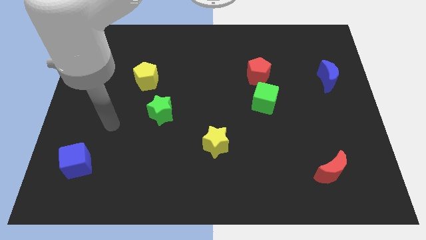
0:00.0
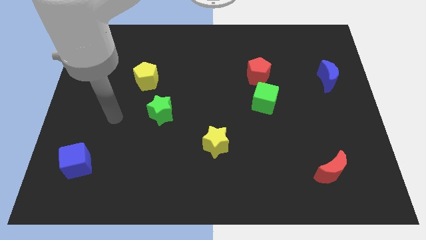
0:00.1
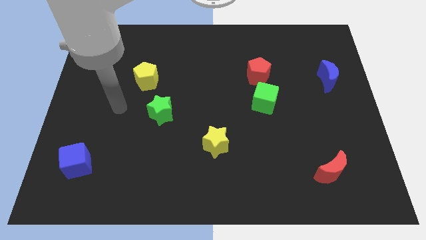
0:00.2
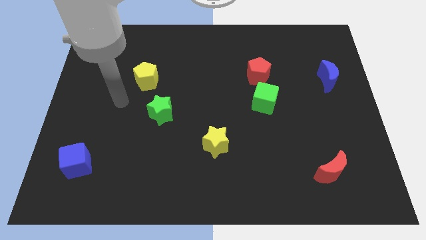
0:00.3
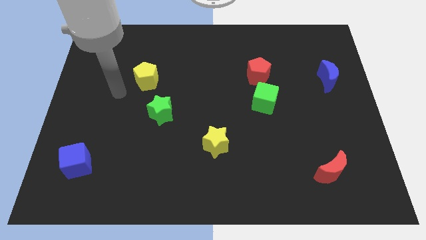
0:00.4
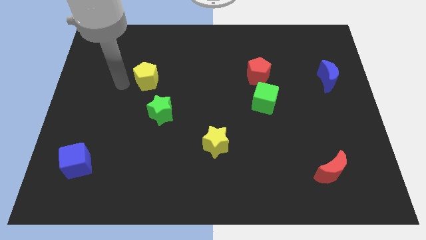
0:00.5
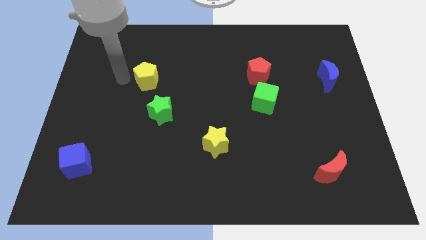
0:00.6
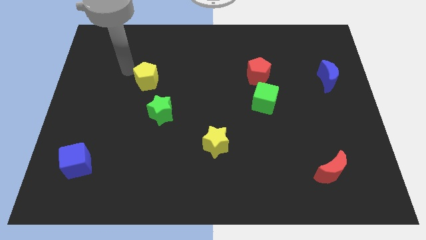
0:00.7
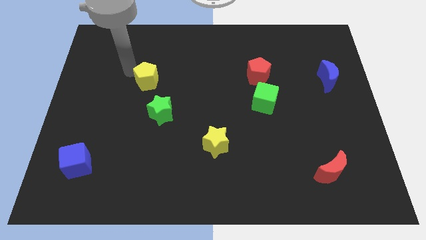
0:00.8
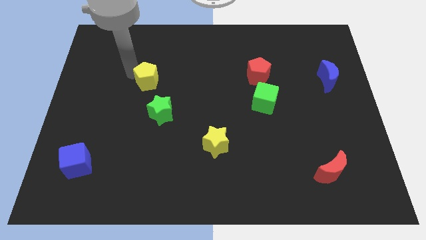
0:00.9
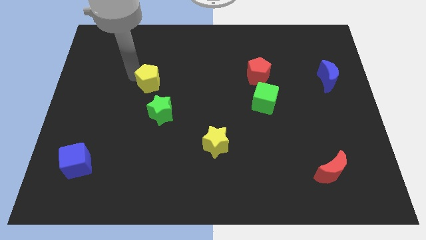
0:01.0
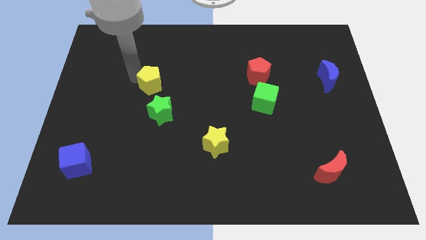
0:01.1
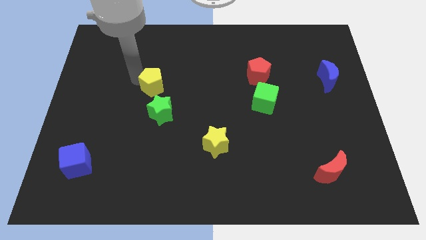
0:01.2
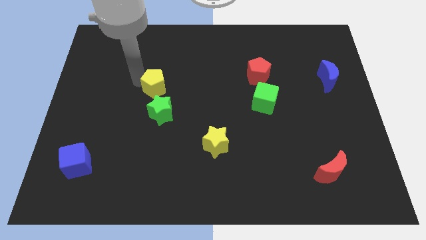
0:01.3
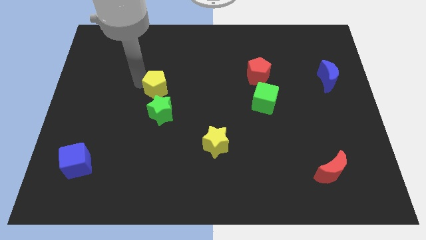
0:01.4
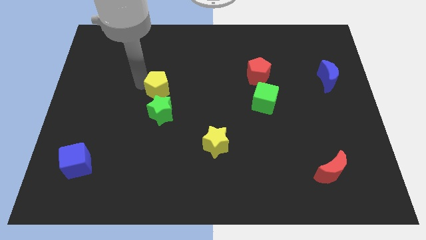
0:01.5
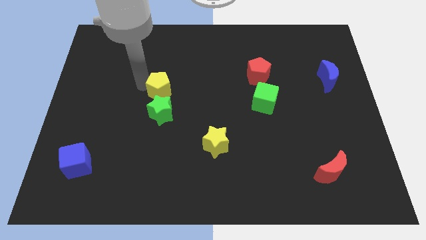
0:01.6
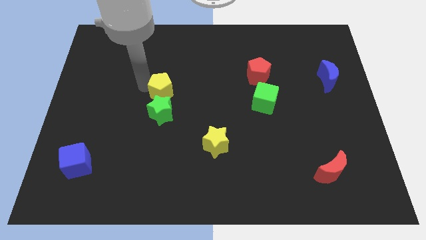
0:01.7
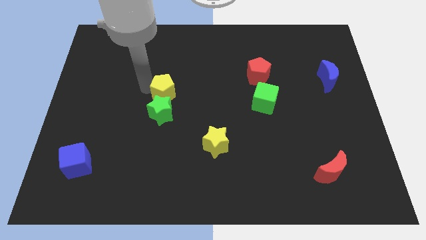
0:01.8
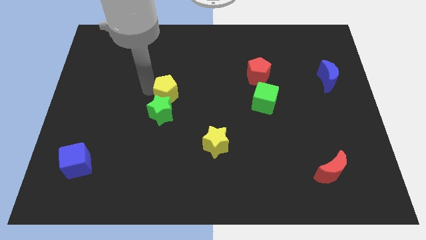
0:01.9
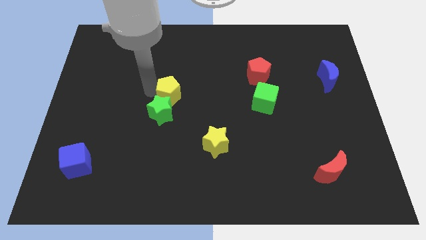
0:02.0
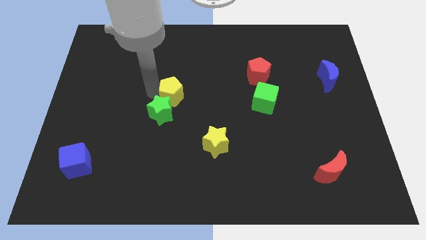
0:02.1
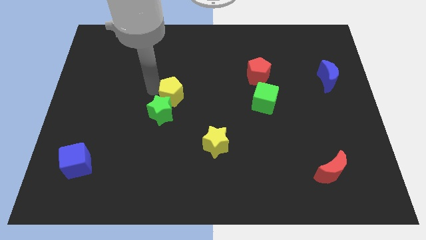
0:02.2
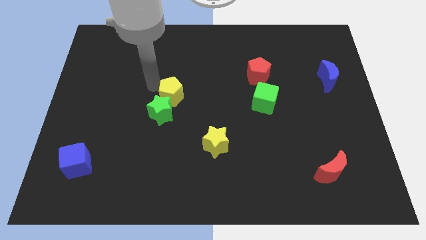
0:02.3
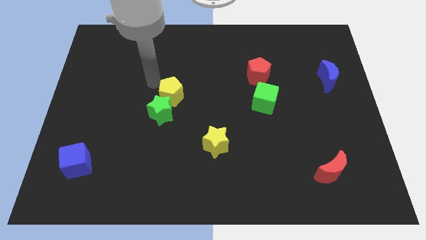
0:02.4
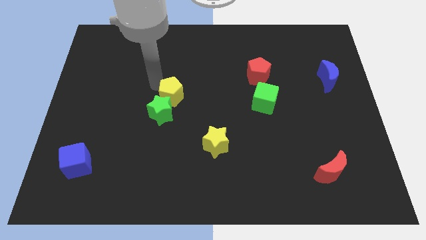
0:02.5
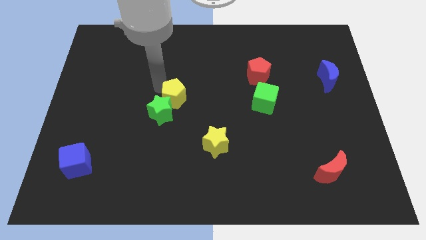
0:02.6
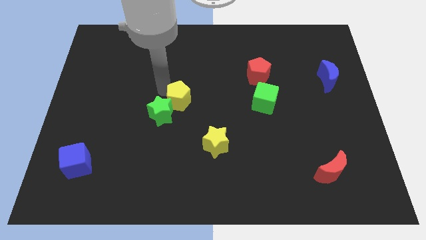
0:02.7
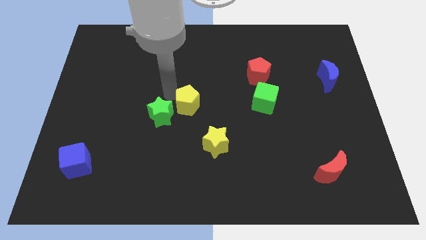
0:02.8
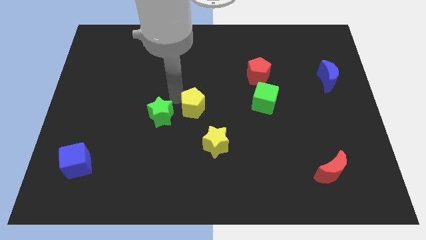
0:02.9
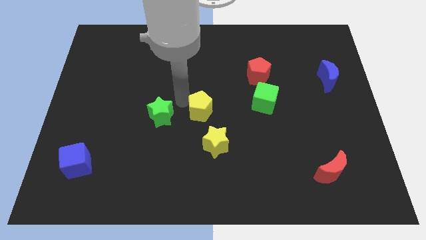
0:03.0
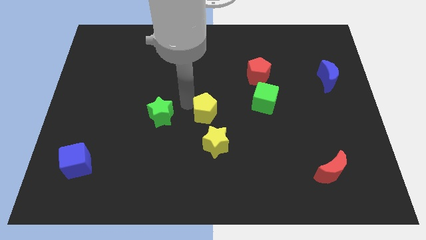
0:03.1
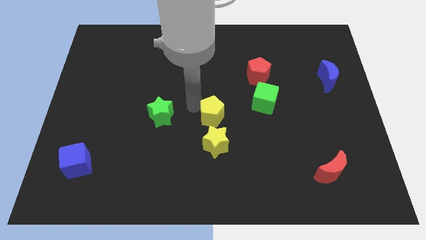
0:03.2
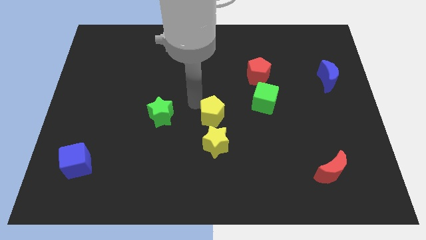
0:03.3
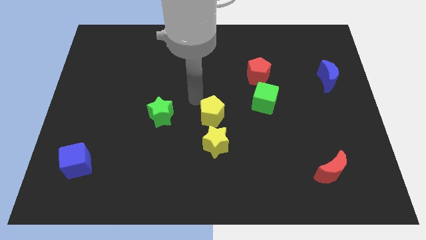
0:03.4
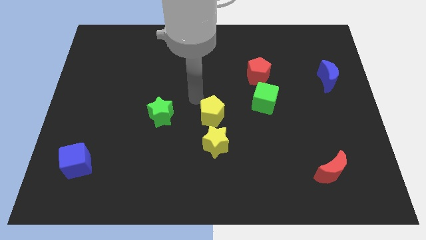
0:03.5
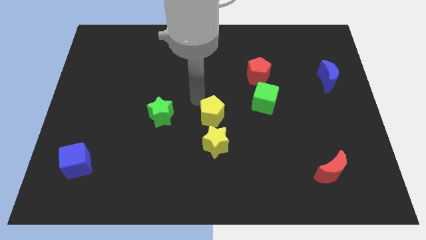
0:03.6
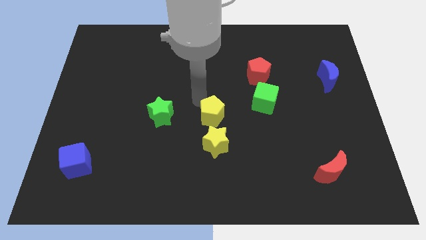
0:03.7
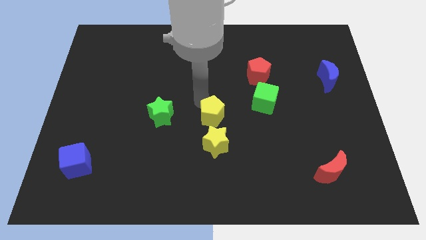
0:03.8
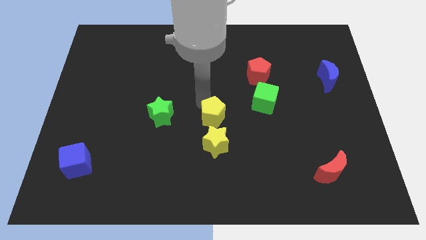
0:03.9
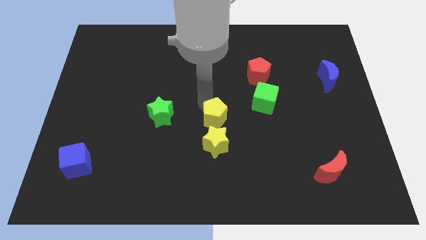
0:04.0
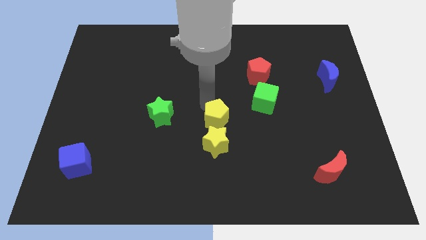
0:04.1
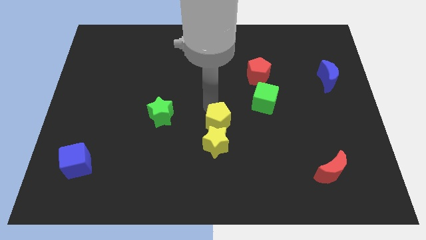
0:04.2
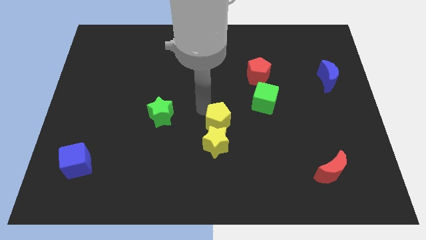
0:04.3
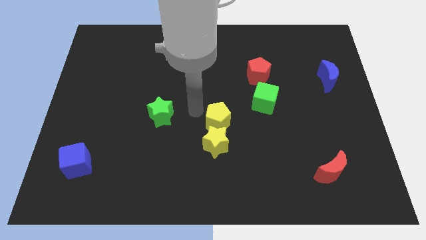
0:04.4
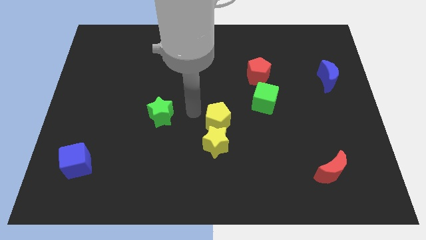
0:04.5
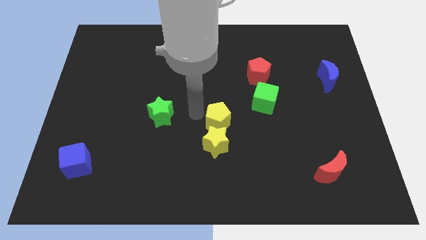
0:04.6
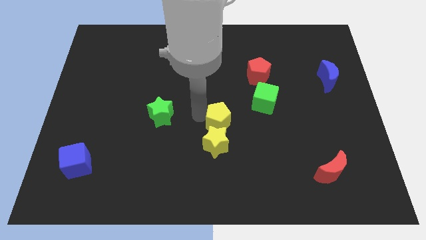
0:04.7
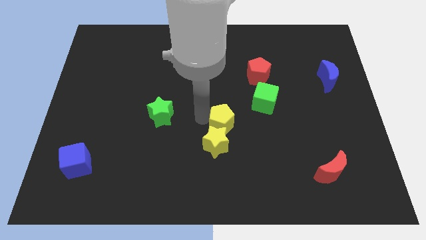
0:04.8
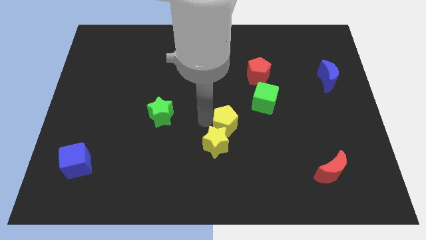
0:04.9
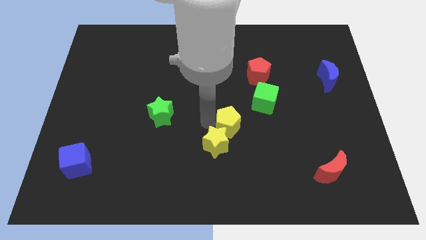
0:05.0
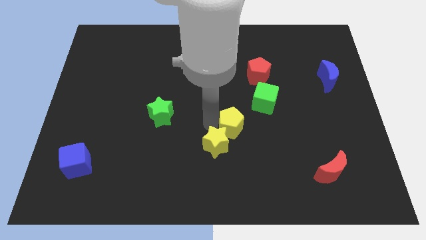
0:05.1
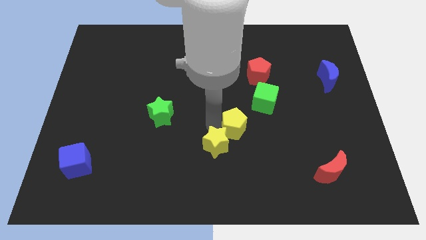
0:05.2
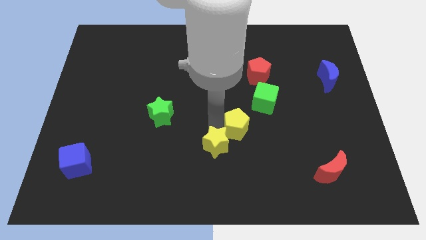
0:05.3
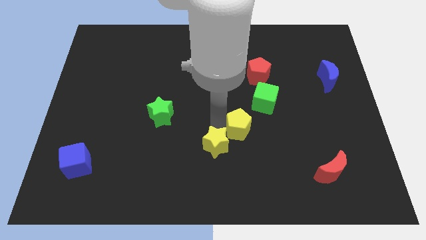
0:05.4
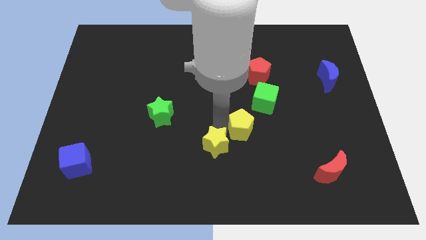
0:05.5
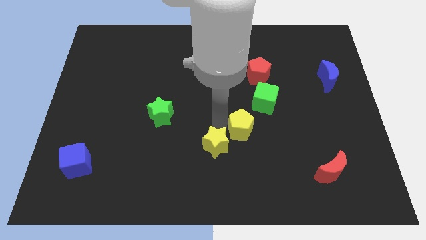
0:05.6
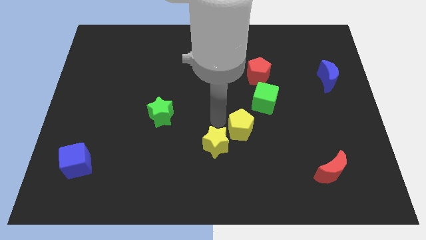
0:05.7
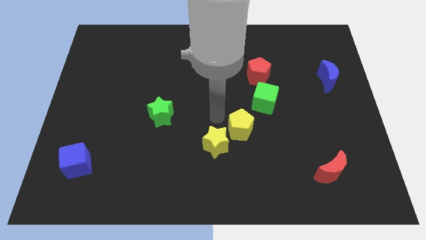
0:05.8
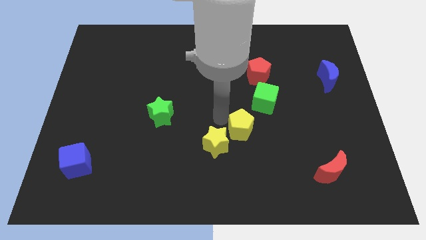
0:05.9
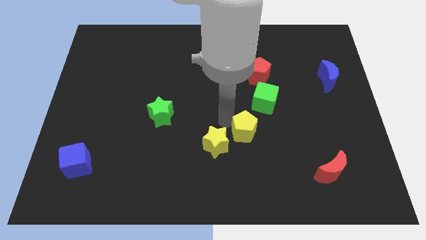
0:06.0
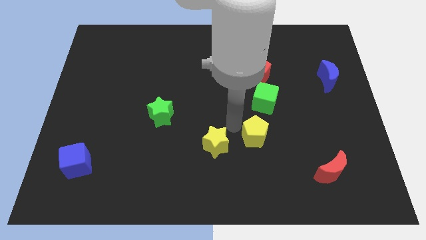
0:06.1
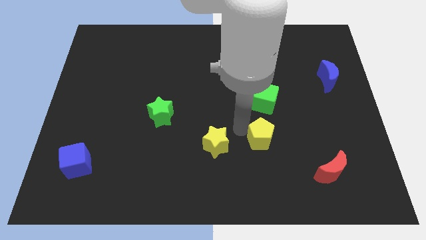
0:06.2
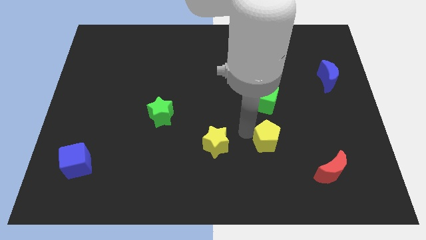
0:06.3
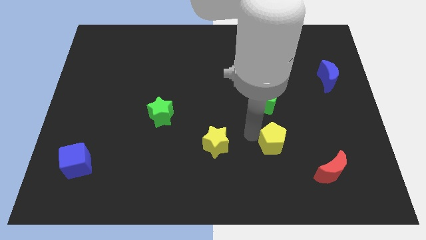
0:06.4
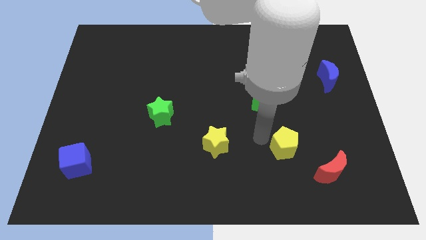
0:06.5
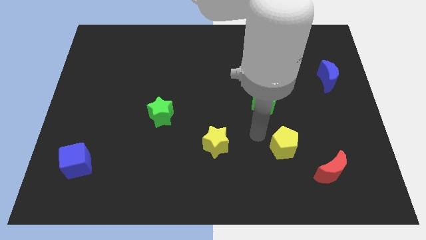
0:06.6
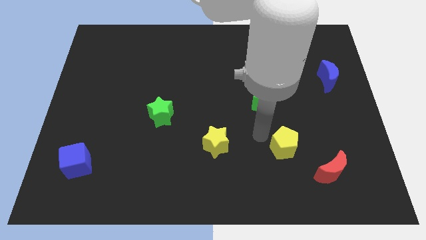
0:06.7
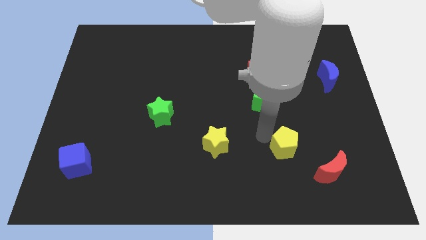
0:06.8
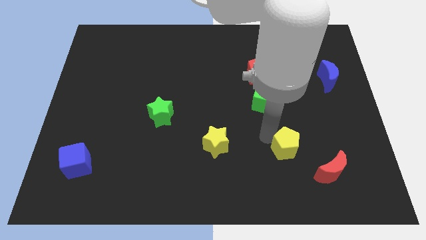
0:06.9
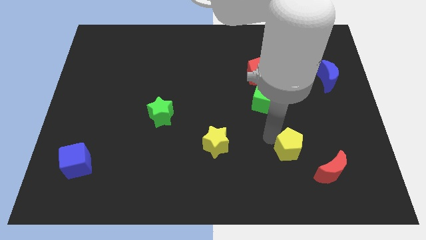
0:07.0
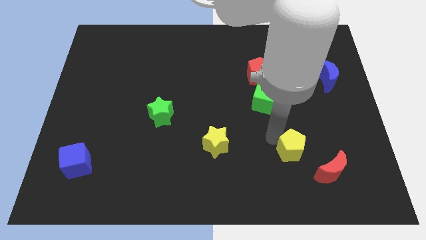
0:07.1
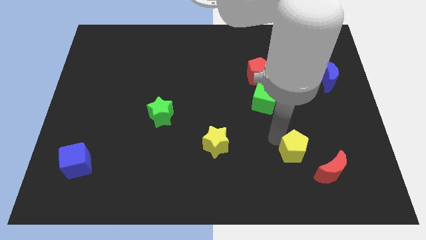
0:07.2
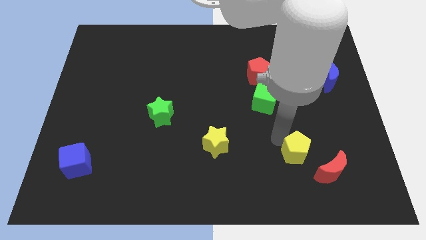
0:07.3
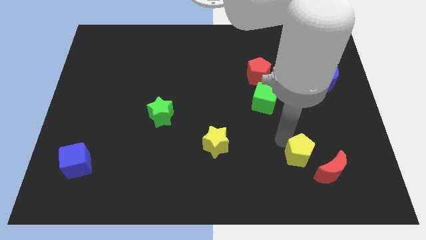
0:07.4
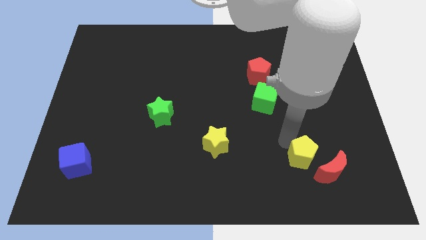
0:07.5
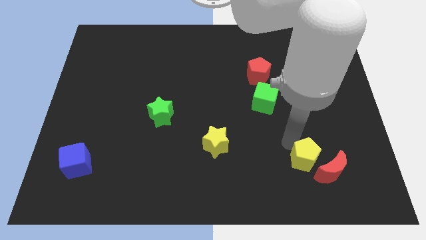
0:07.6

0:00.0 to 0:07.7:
move the yellow pentagon towards the red moon
